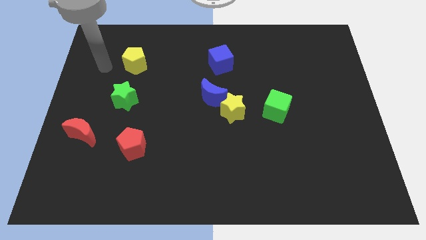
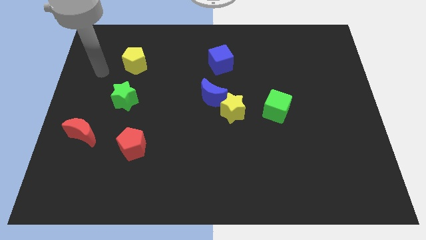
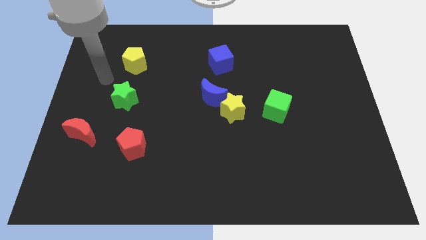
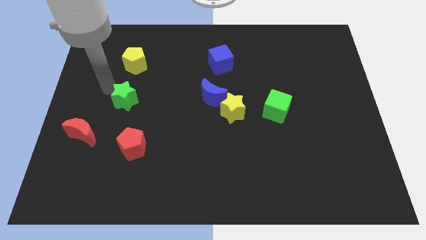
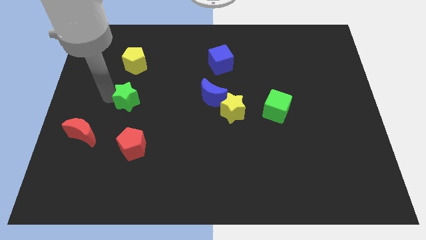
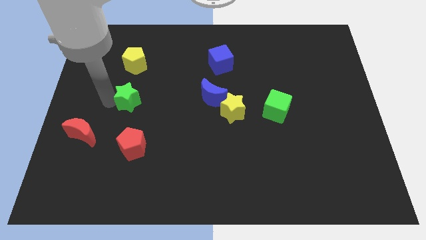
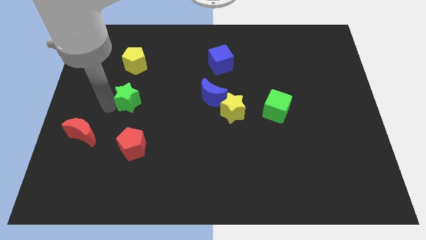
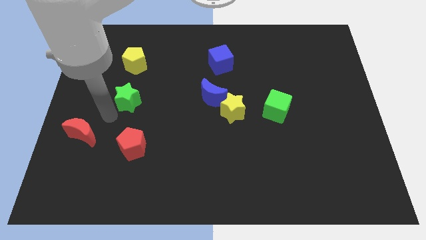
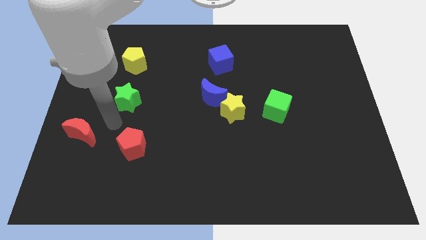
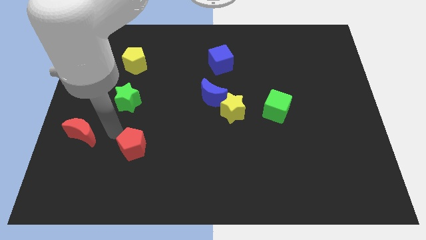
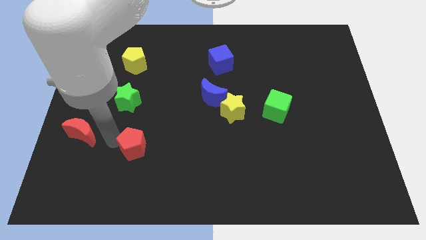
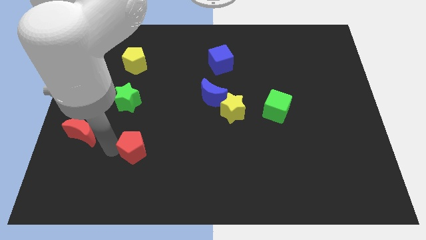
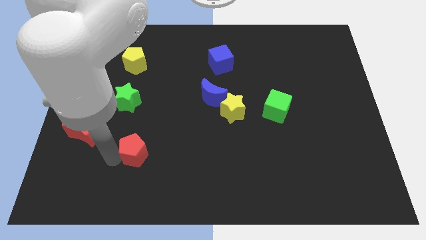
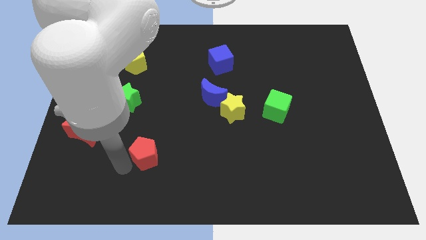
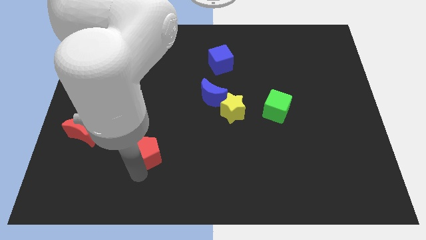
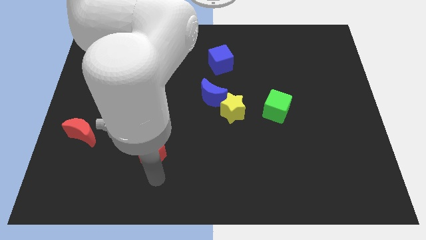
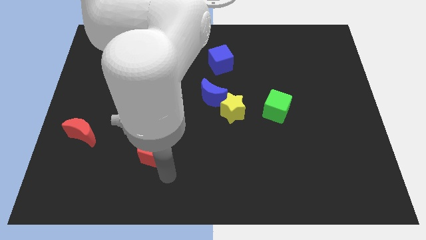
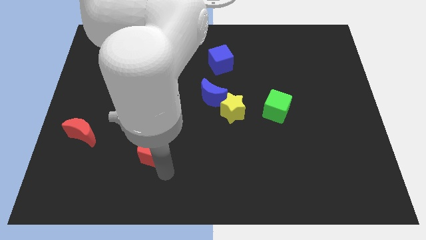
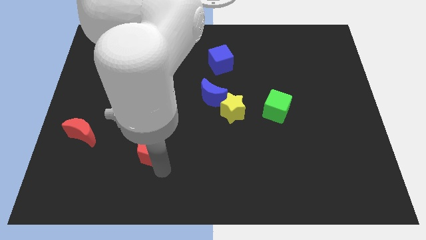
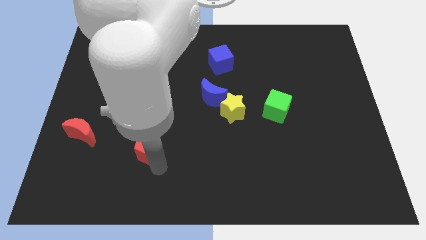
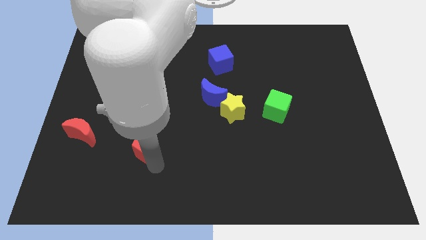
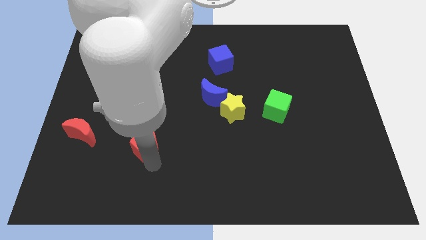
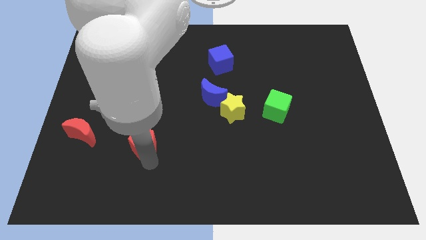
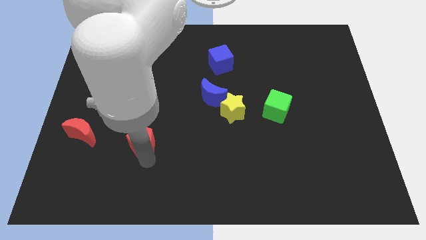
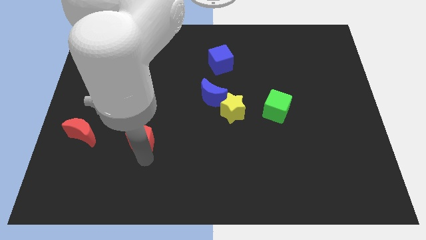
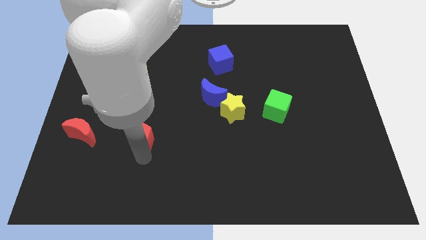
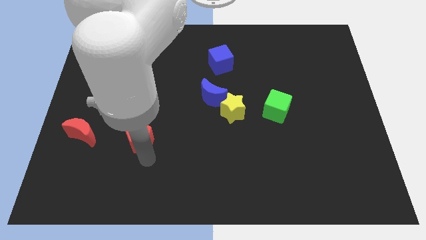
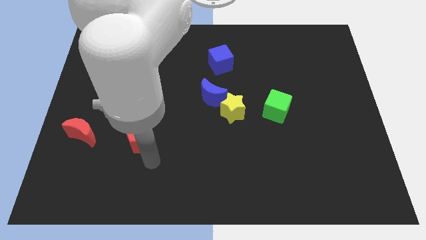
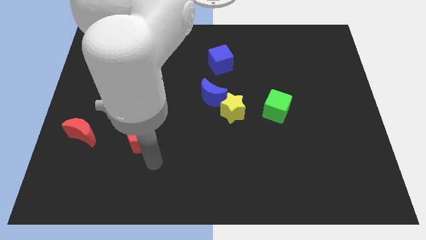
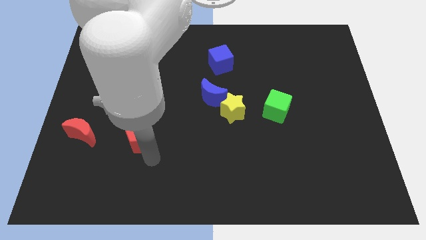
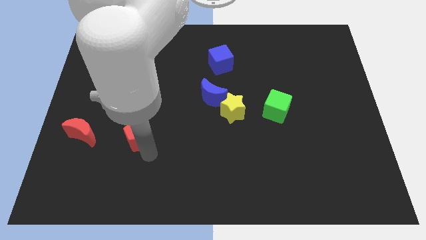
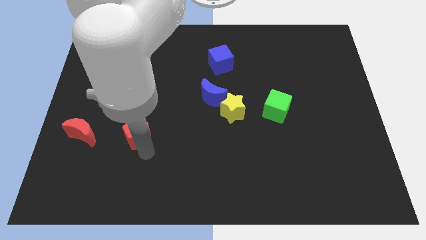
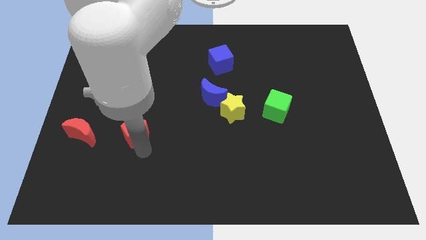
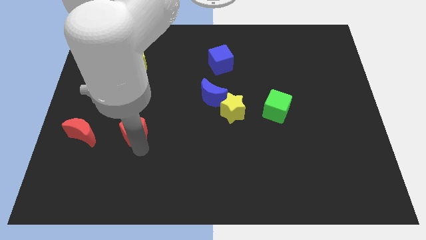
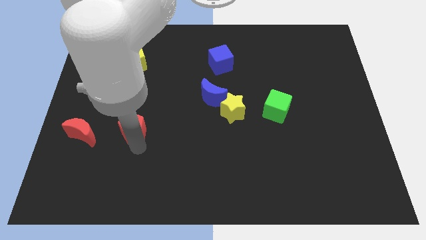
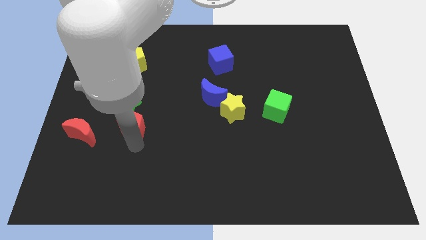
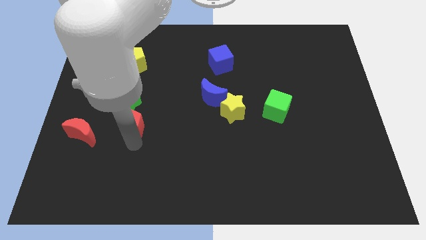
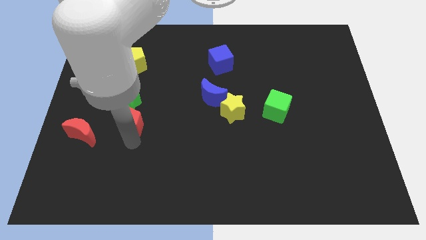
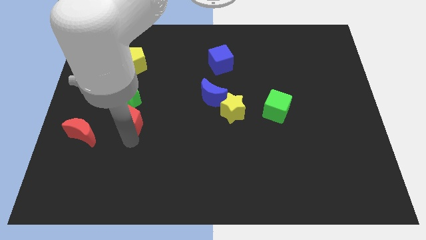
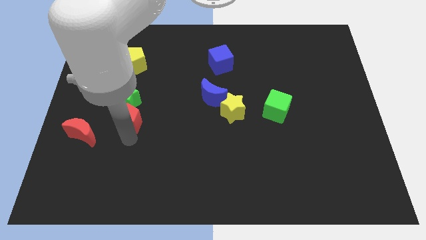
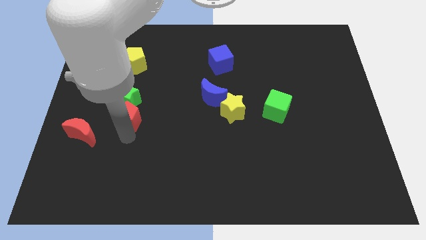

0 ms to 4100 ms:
move the red pentagon up a little bit

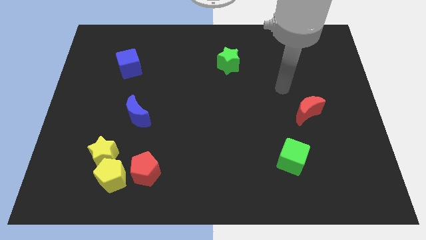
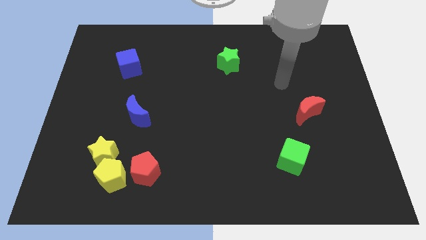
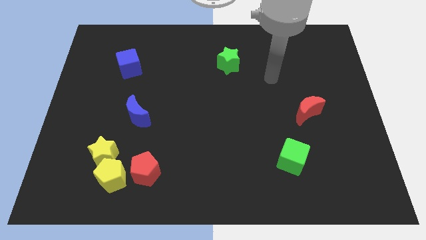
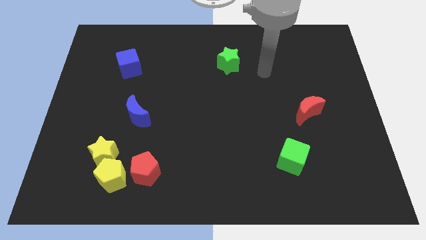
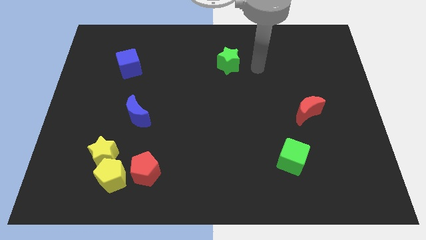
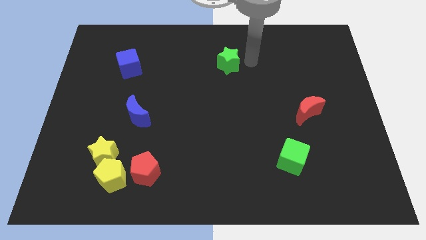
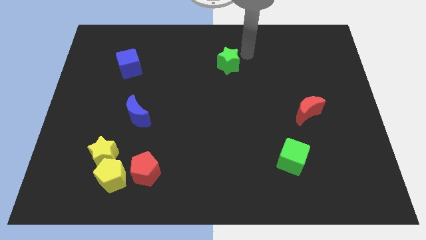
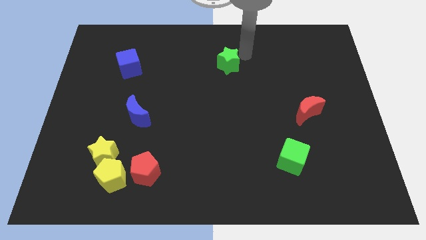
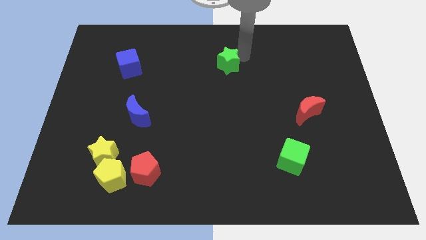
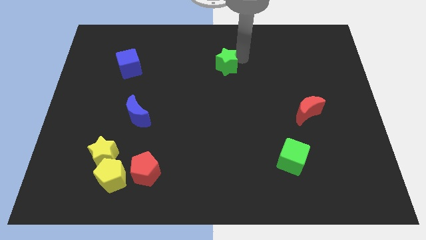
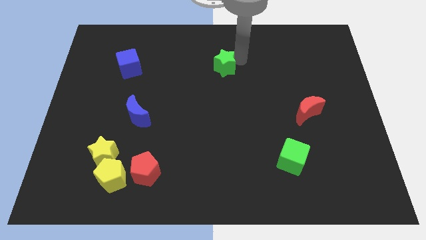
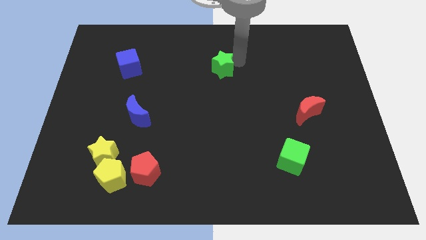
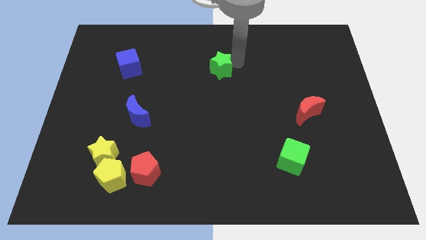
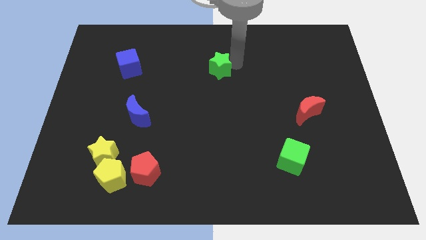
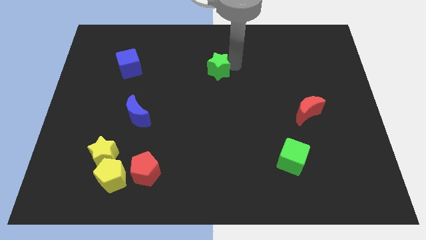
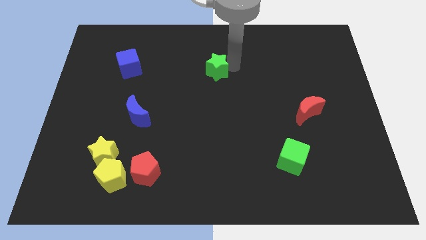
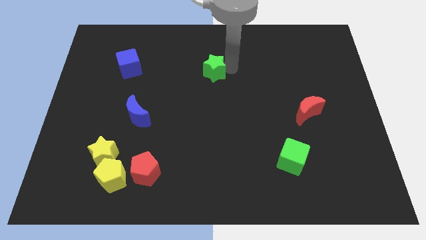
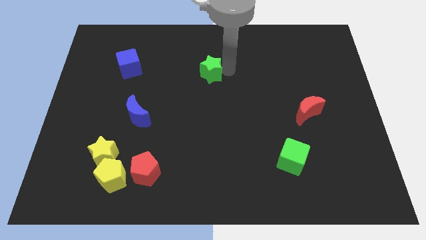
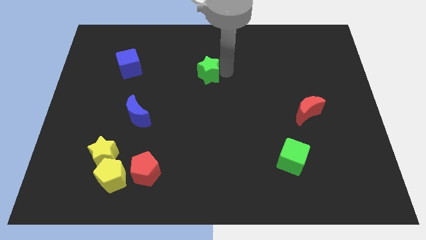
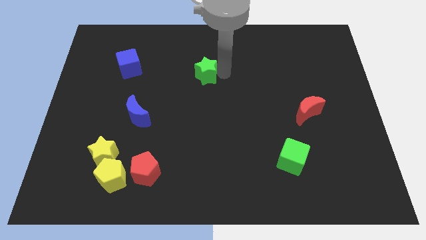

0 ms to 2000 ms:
slightly push the green star down and to the left

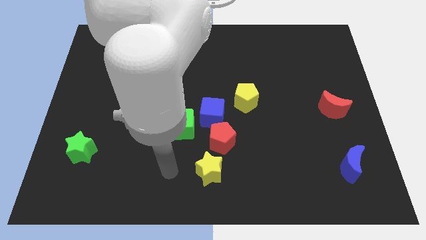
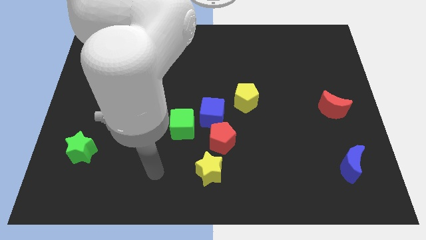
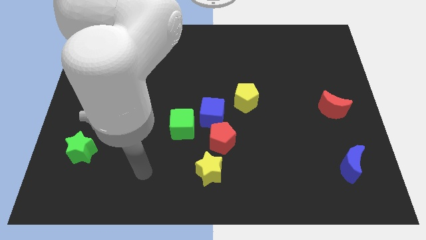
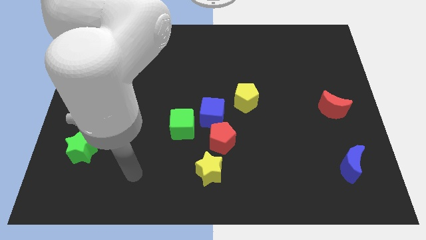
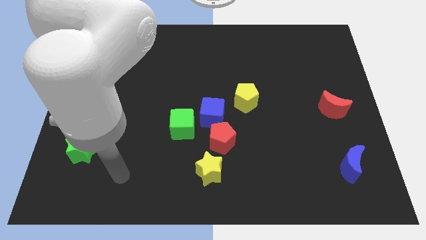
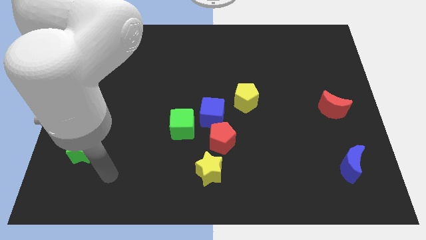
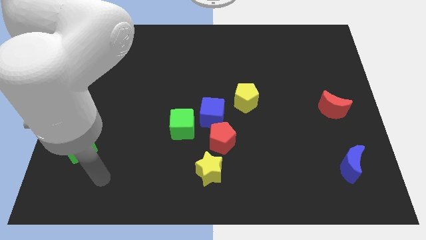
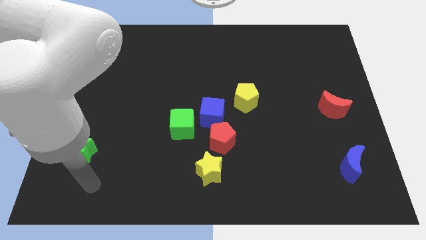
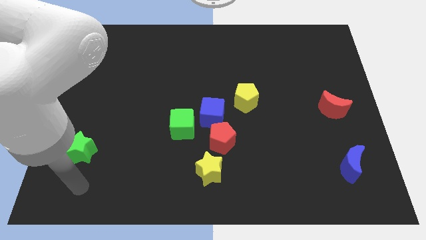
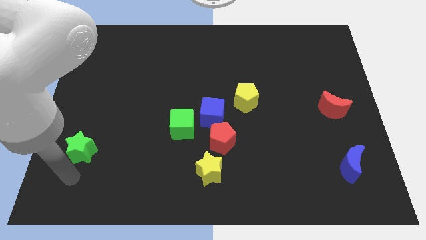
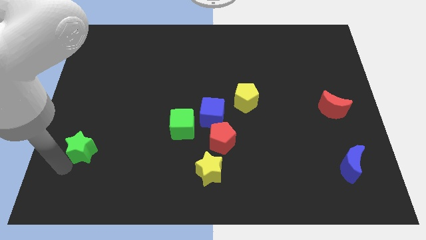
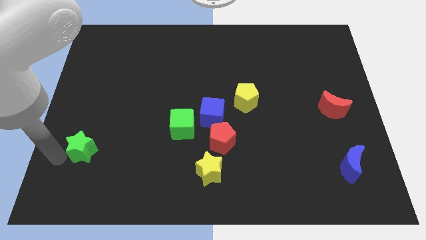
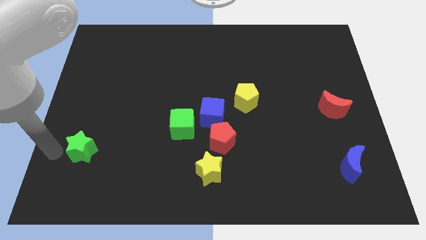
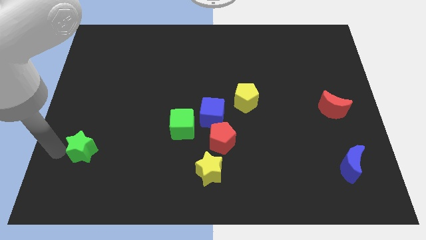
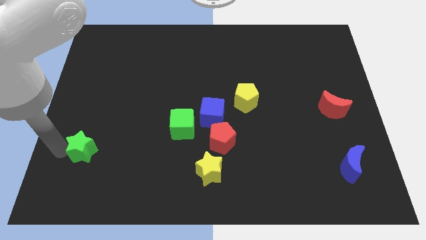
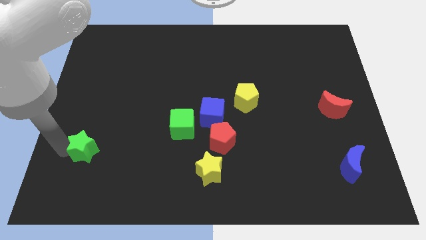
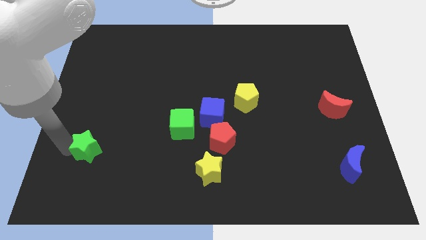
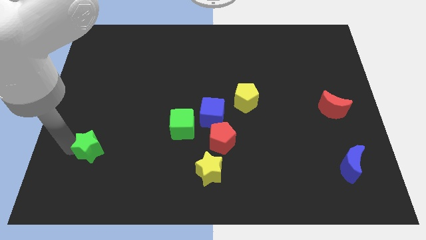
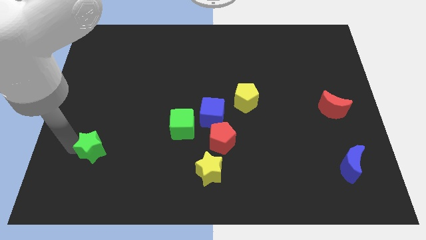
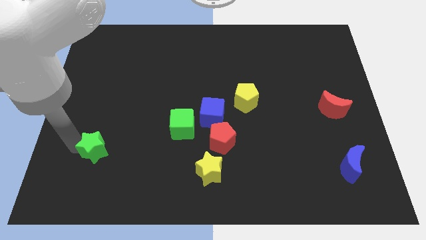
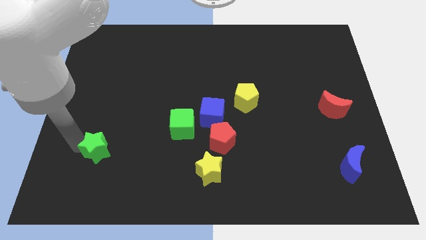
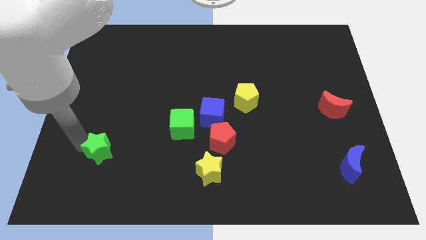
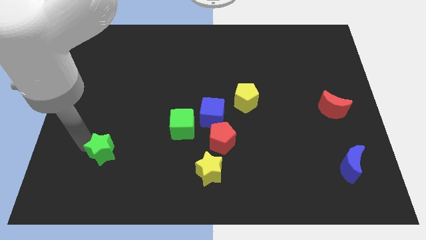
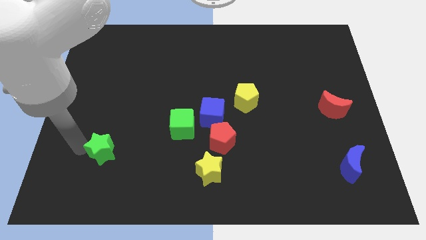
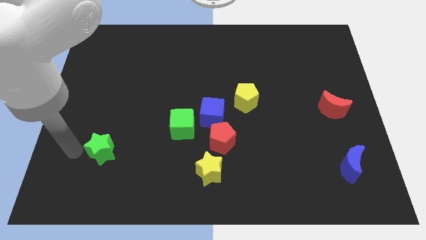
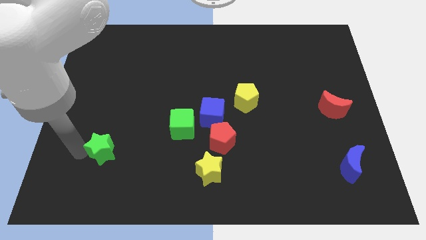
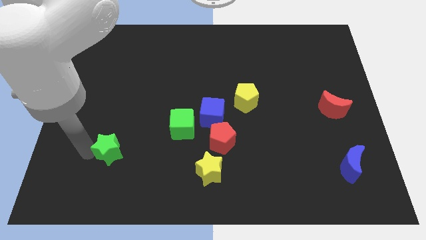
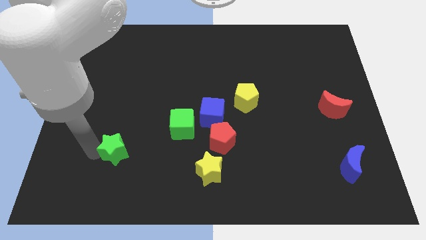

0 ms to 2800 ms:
slide the green star a little bit to the right
